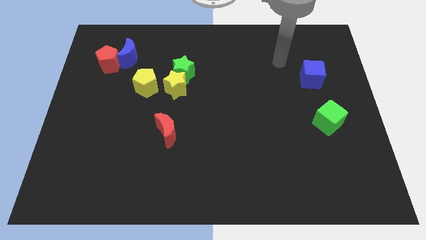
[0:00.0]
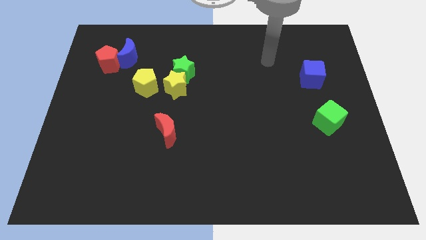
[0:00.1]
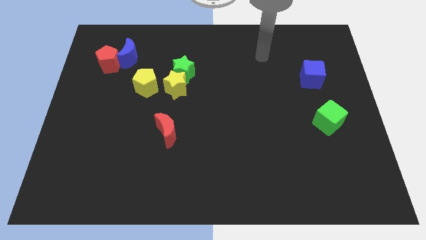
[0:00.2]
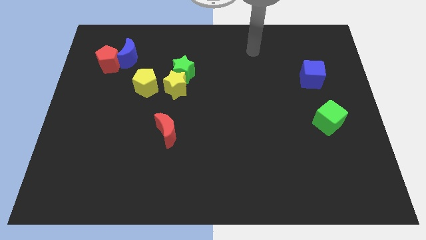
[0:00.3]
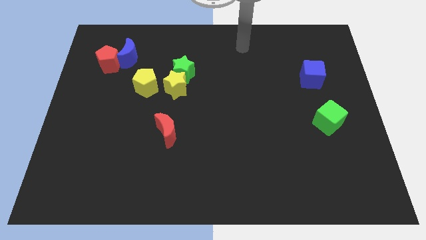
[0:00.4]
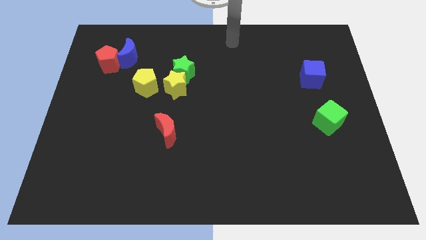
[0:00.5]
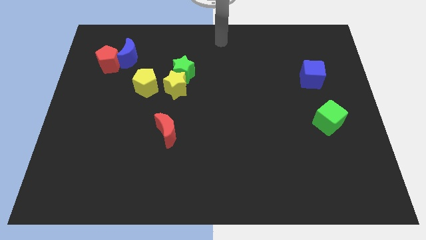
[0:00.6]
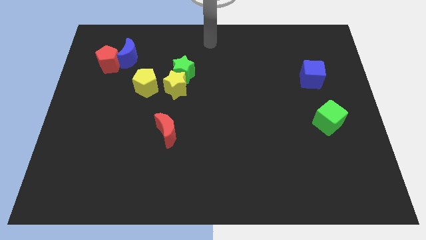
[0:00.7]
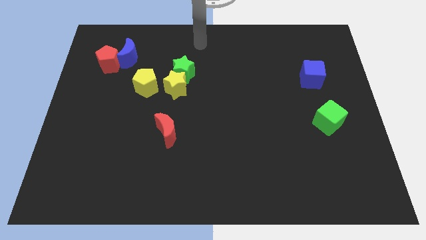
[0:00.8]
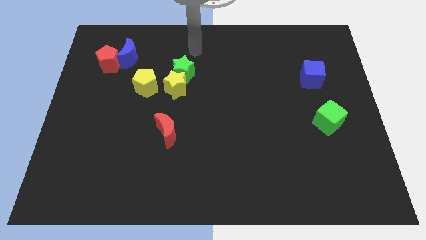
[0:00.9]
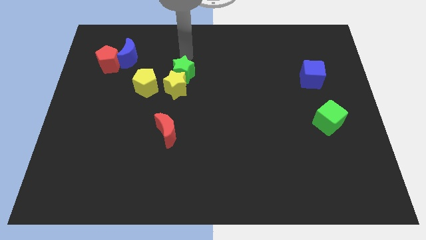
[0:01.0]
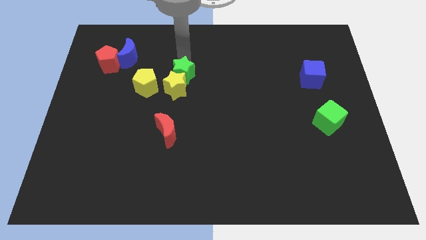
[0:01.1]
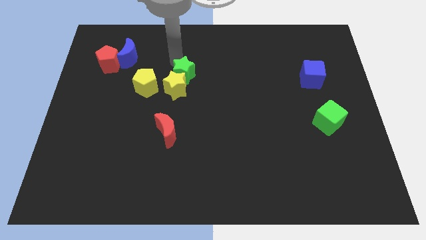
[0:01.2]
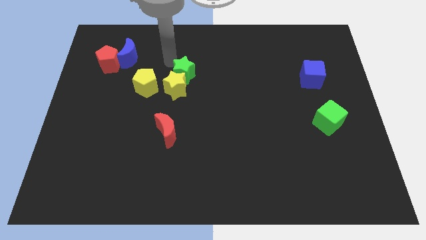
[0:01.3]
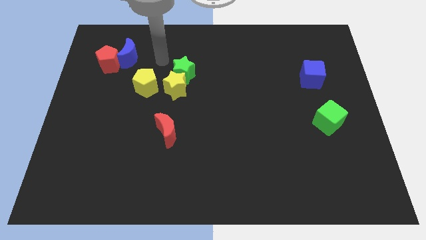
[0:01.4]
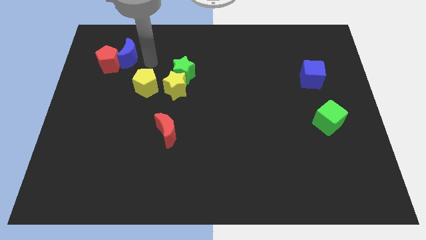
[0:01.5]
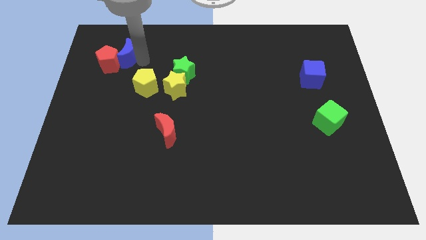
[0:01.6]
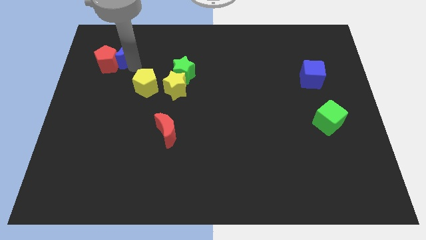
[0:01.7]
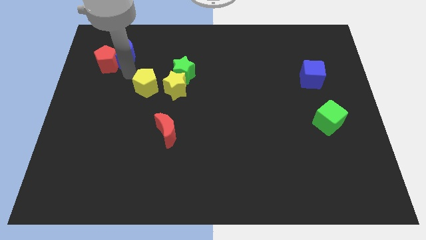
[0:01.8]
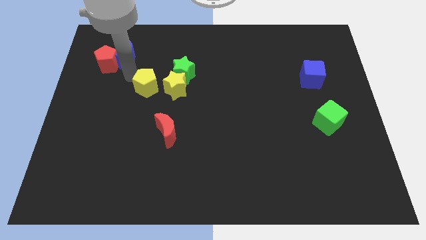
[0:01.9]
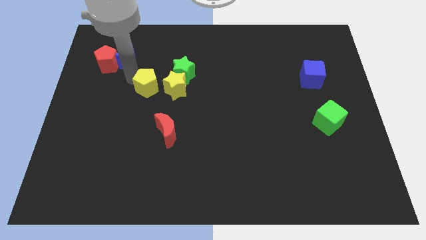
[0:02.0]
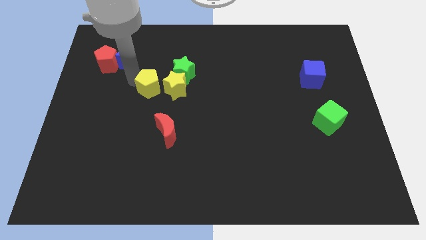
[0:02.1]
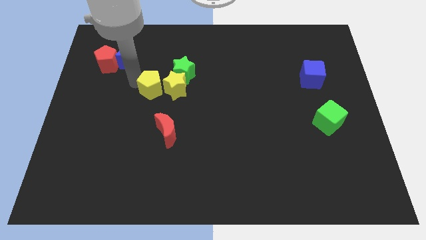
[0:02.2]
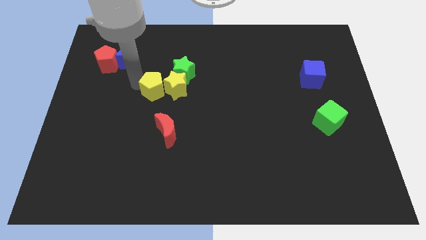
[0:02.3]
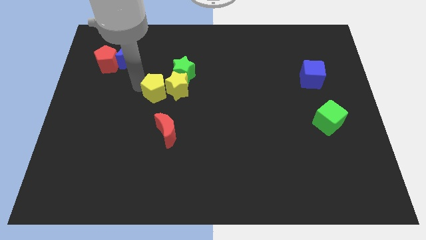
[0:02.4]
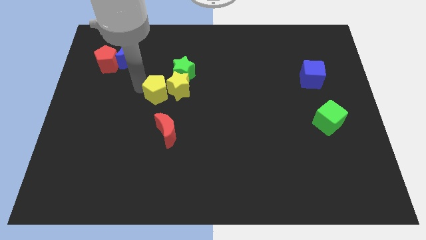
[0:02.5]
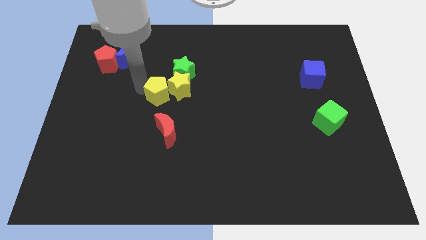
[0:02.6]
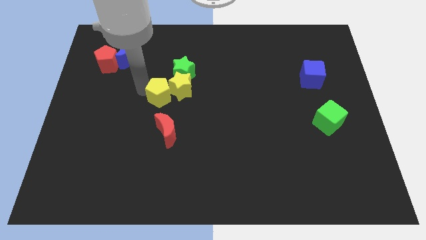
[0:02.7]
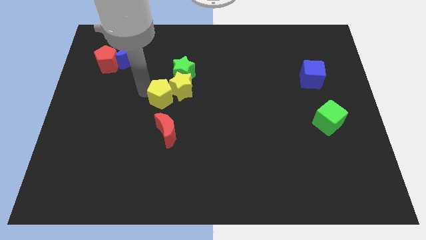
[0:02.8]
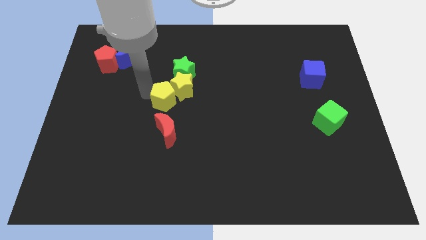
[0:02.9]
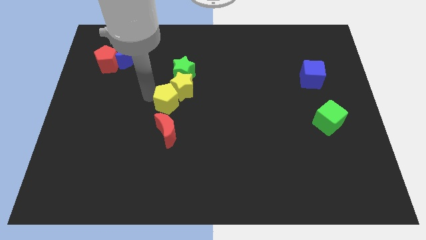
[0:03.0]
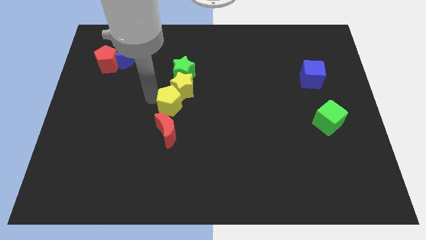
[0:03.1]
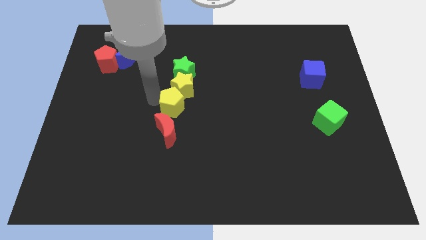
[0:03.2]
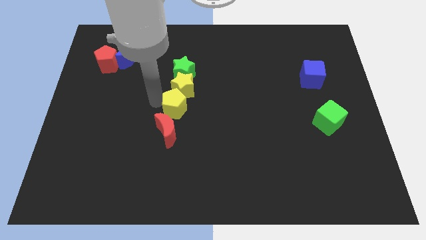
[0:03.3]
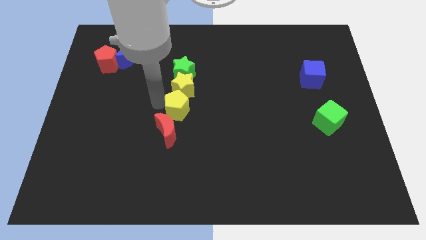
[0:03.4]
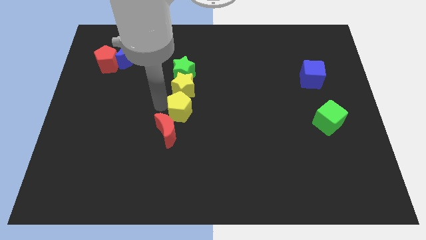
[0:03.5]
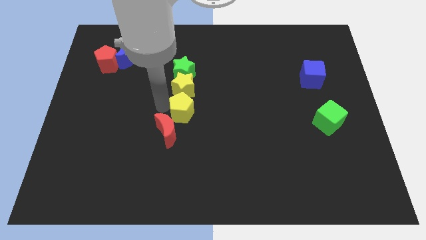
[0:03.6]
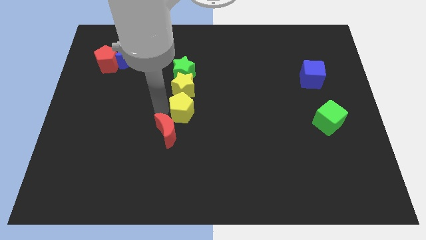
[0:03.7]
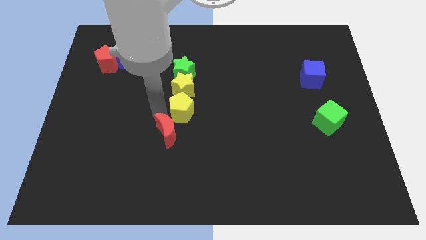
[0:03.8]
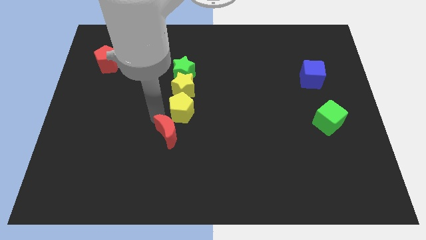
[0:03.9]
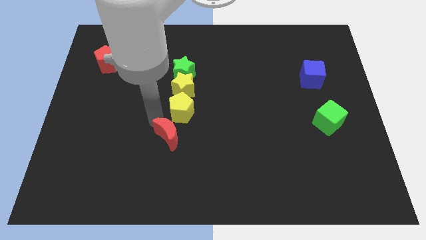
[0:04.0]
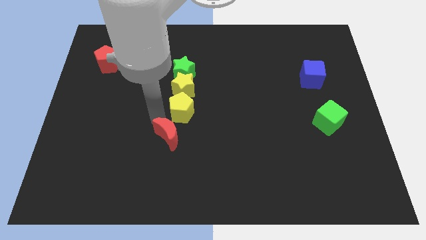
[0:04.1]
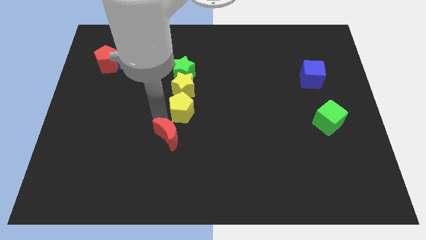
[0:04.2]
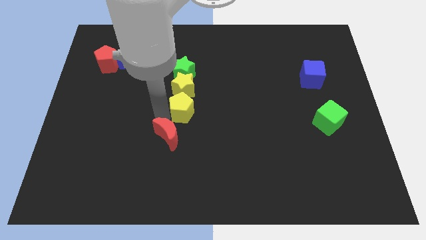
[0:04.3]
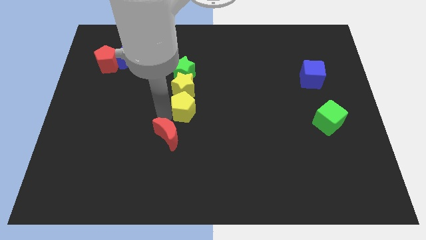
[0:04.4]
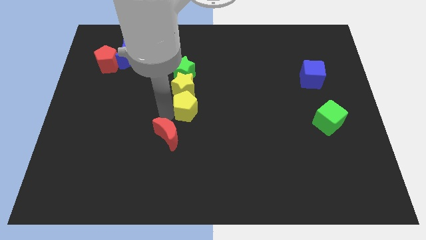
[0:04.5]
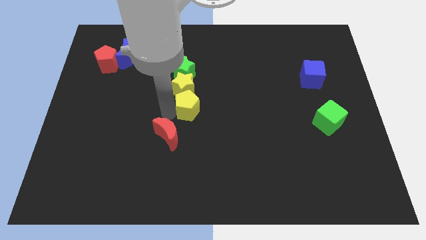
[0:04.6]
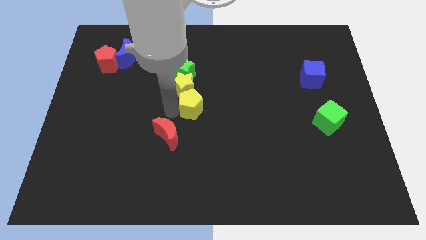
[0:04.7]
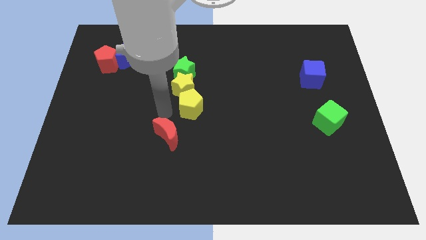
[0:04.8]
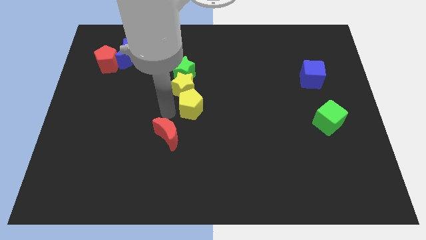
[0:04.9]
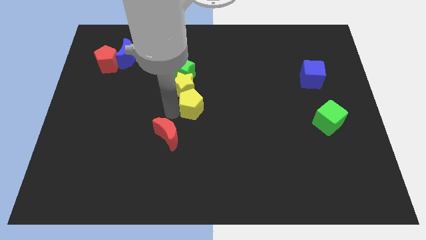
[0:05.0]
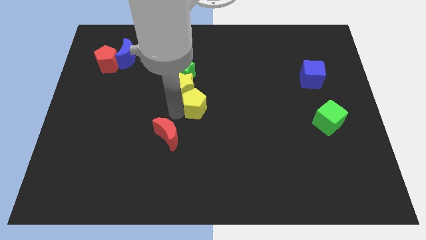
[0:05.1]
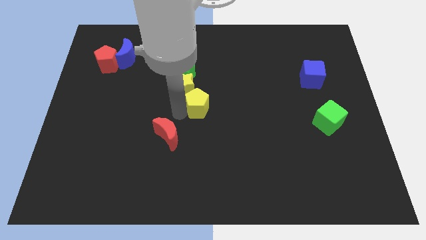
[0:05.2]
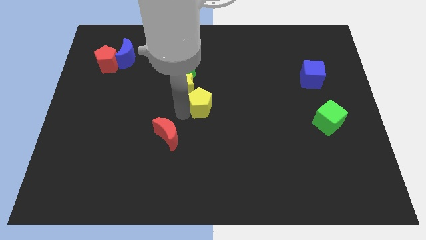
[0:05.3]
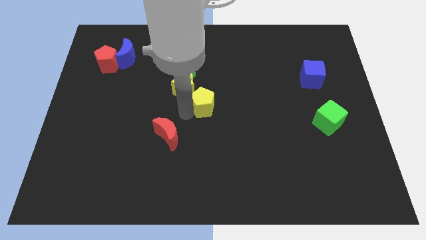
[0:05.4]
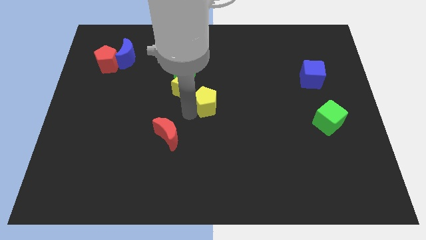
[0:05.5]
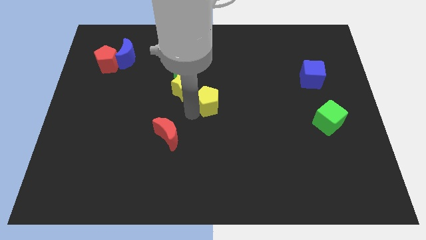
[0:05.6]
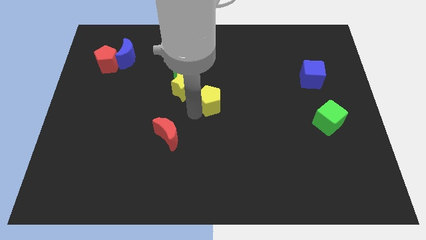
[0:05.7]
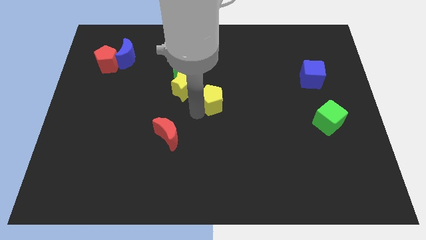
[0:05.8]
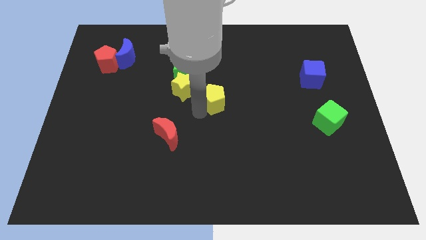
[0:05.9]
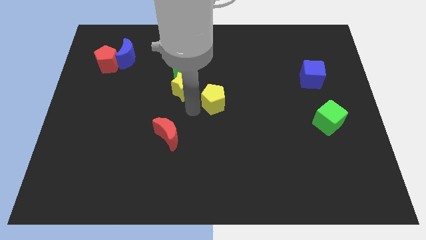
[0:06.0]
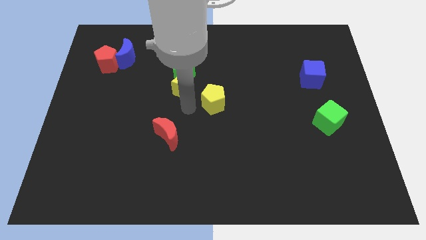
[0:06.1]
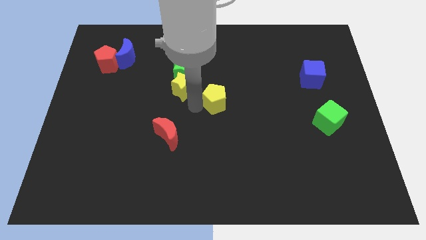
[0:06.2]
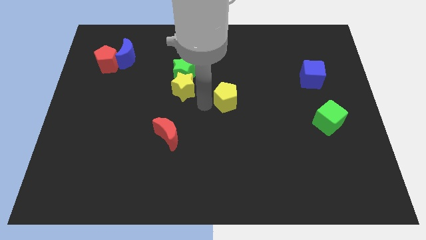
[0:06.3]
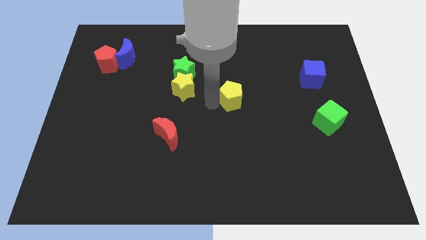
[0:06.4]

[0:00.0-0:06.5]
move the yellow pentagon to the right

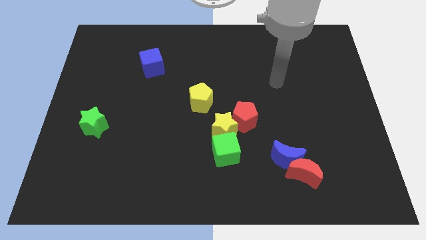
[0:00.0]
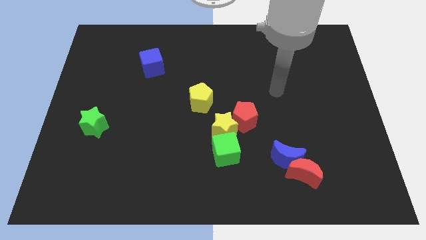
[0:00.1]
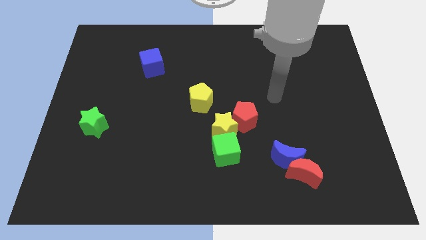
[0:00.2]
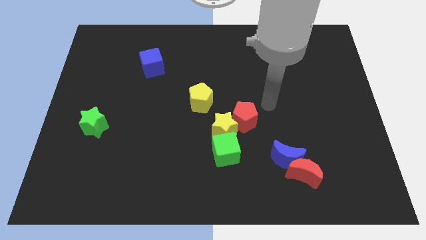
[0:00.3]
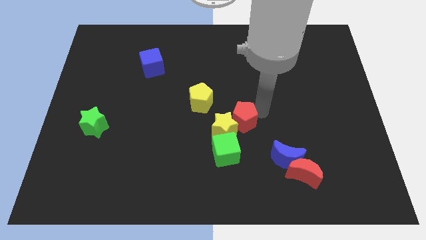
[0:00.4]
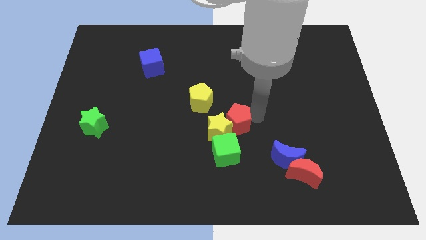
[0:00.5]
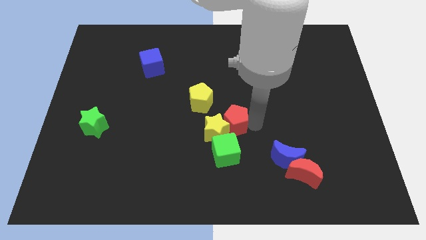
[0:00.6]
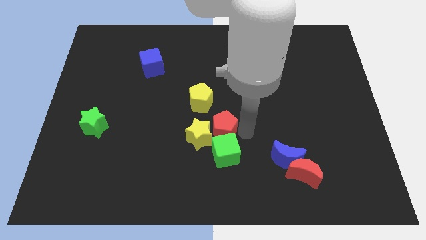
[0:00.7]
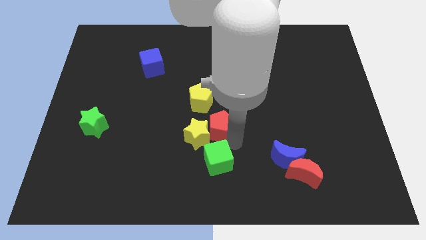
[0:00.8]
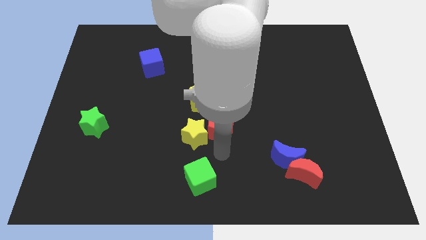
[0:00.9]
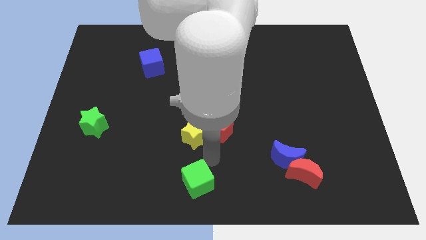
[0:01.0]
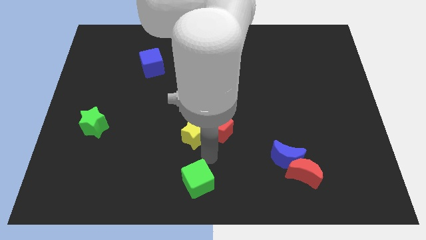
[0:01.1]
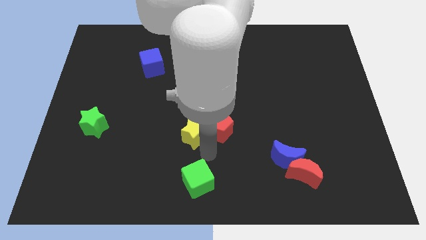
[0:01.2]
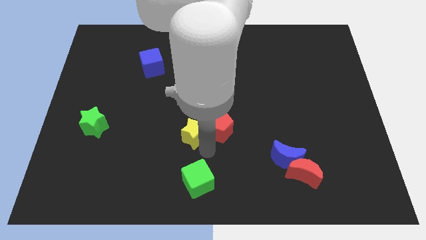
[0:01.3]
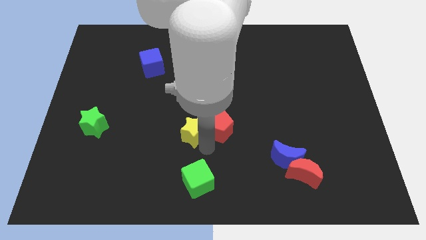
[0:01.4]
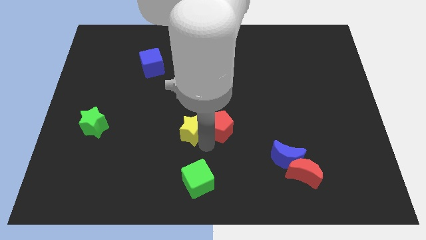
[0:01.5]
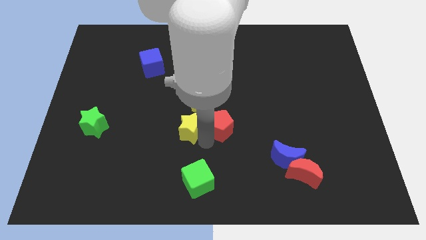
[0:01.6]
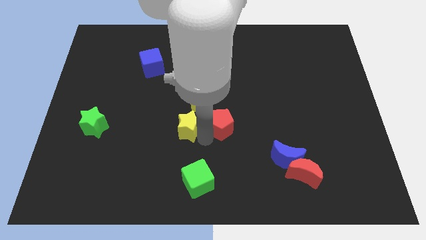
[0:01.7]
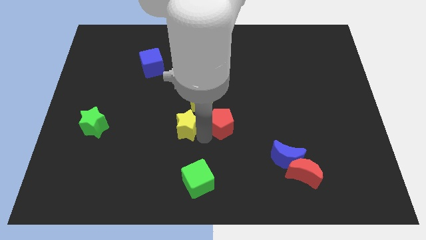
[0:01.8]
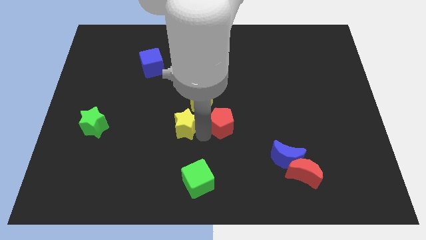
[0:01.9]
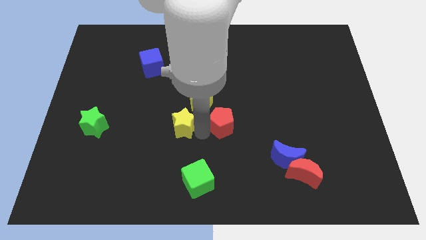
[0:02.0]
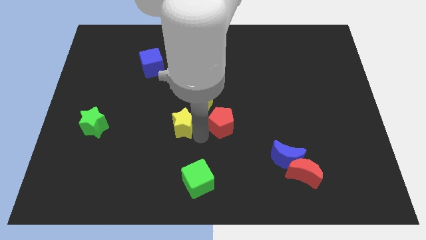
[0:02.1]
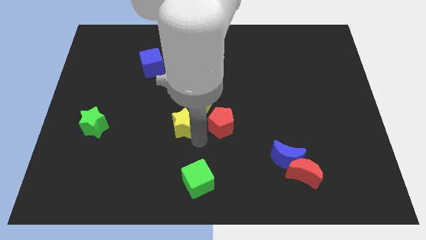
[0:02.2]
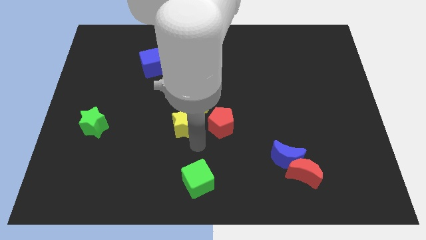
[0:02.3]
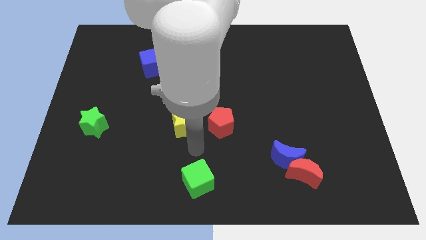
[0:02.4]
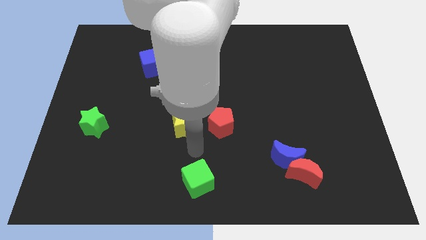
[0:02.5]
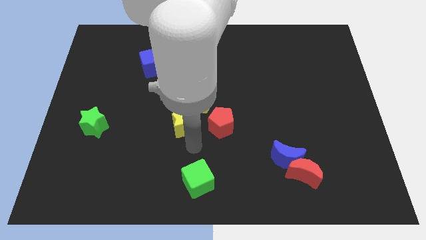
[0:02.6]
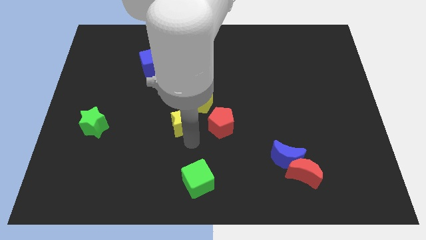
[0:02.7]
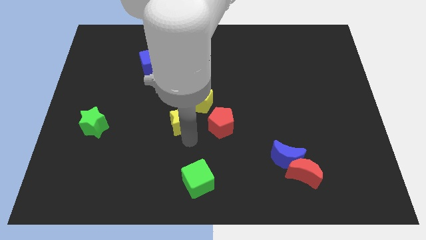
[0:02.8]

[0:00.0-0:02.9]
slide the yellow star upwards and then left somewhat
